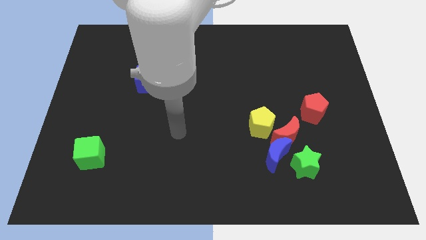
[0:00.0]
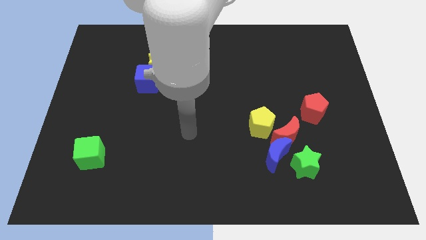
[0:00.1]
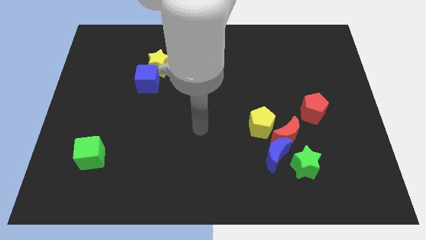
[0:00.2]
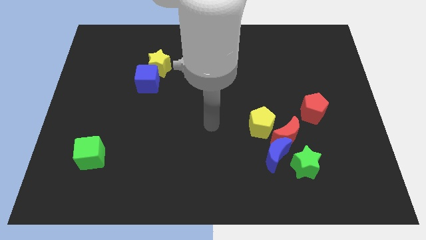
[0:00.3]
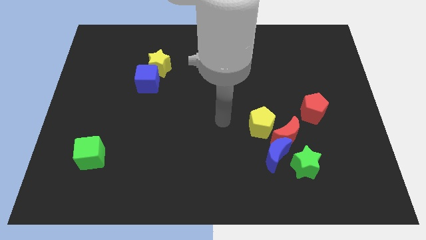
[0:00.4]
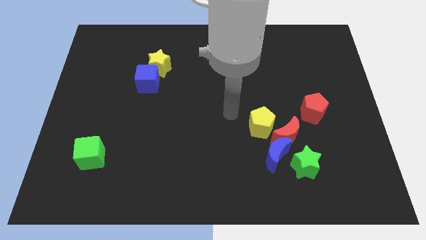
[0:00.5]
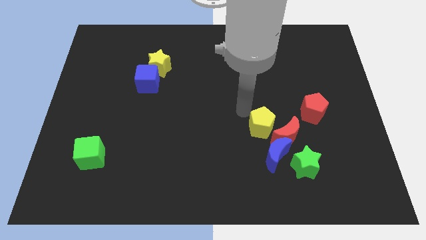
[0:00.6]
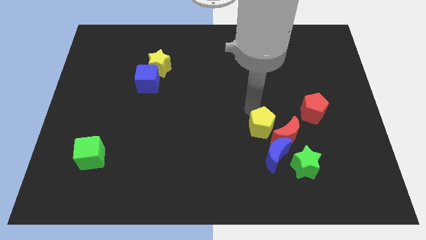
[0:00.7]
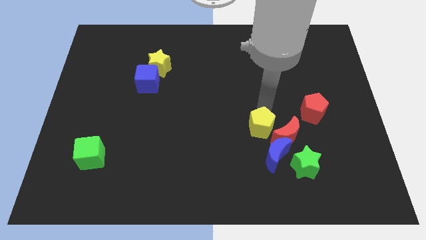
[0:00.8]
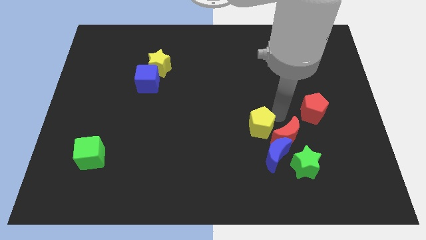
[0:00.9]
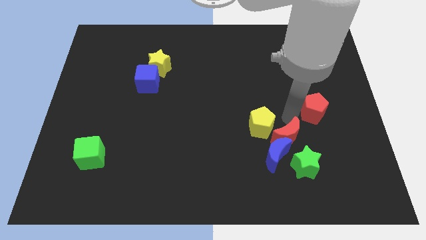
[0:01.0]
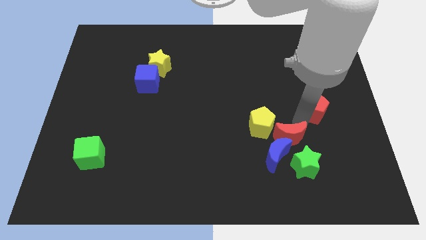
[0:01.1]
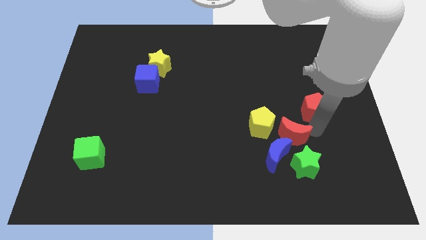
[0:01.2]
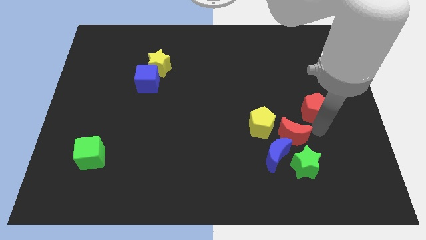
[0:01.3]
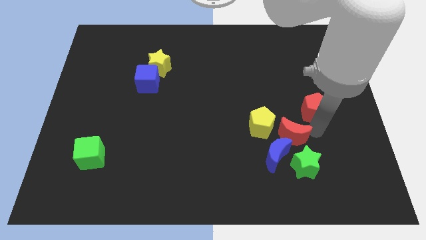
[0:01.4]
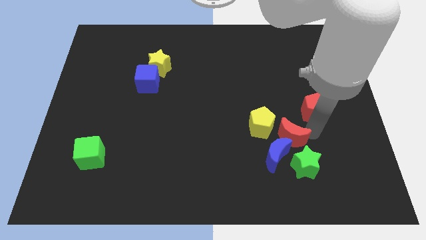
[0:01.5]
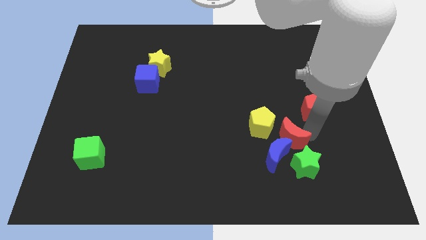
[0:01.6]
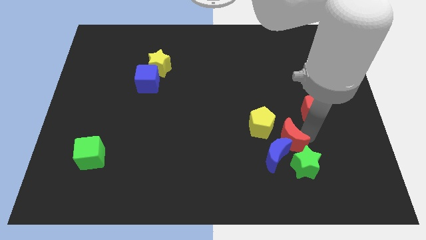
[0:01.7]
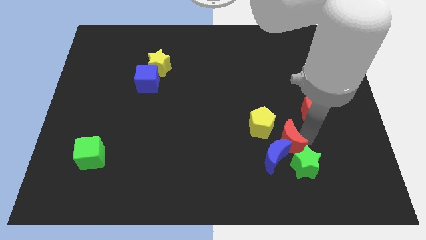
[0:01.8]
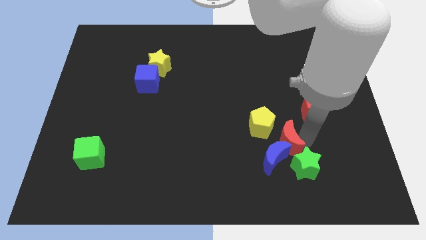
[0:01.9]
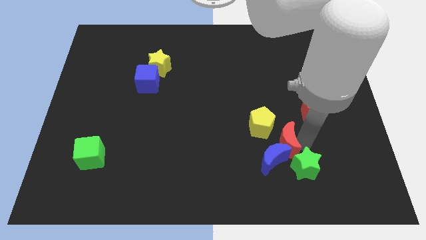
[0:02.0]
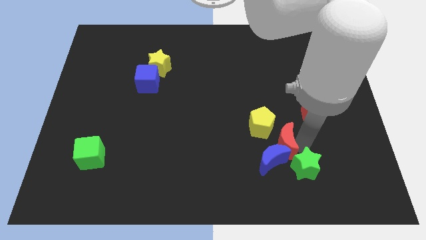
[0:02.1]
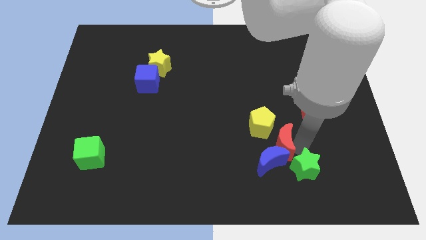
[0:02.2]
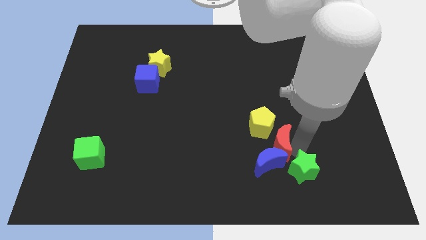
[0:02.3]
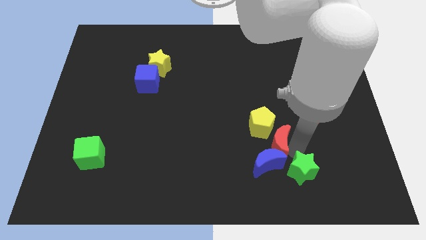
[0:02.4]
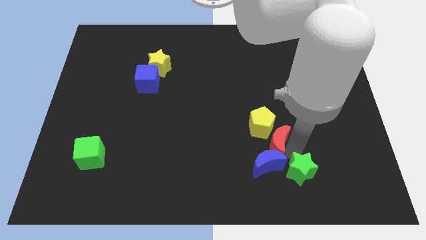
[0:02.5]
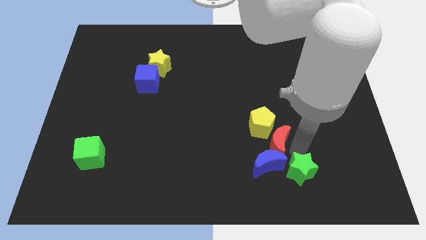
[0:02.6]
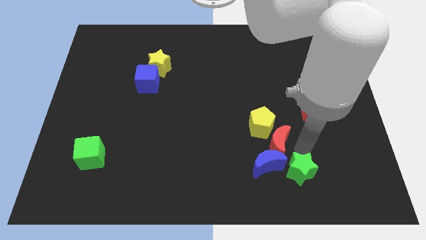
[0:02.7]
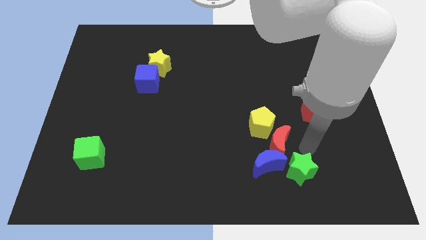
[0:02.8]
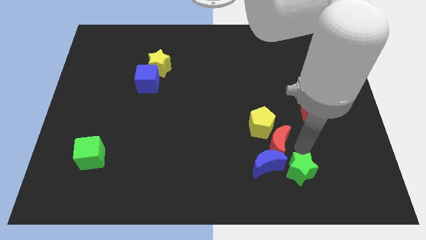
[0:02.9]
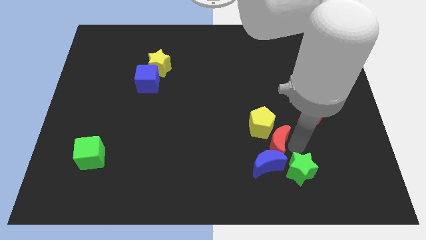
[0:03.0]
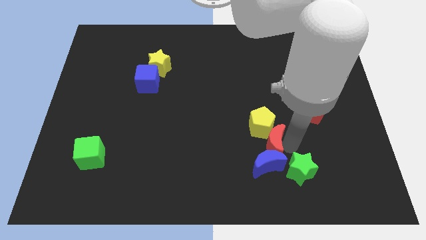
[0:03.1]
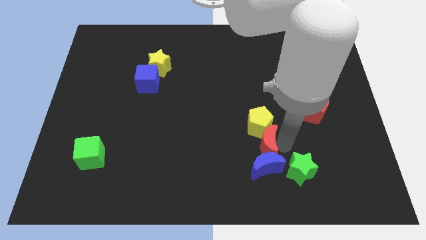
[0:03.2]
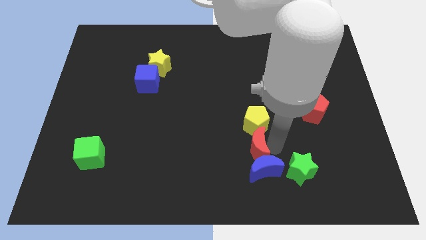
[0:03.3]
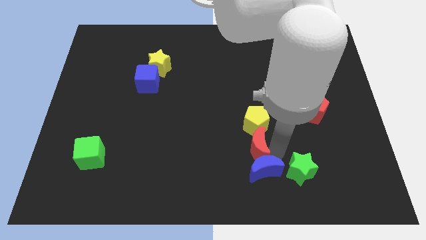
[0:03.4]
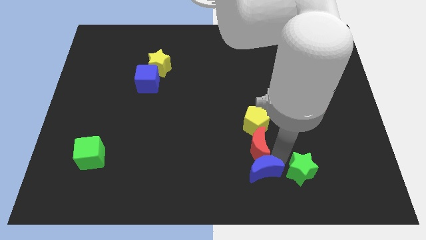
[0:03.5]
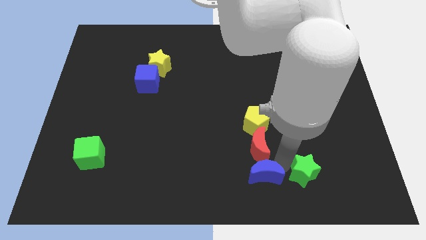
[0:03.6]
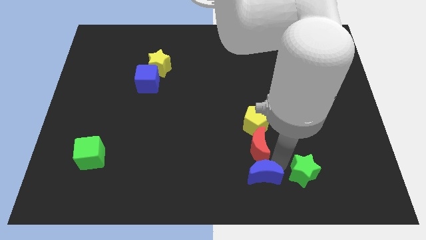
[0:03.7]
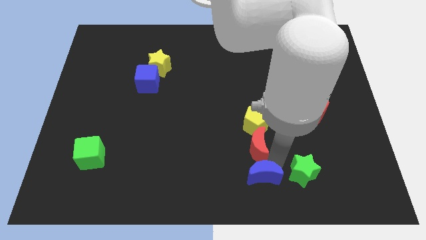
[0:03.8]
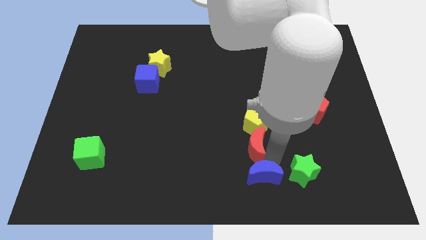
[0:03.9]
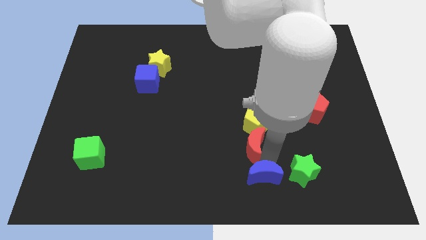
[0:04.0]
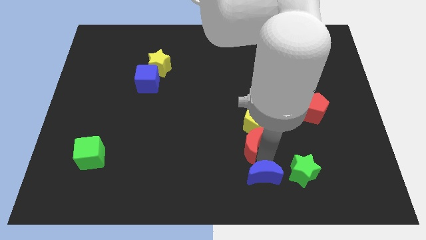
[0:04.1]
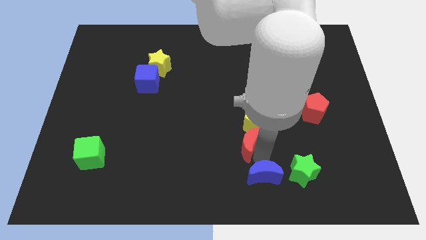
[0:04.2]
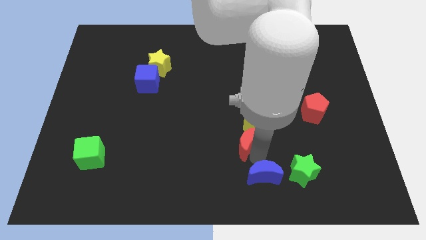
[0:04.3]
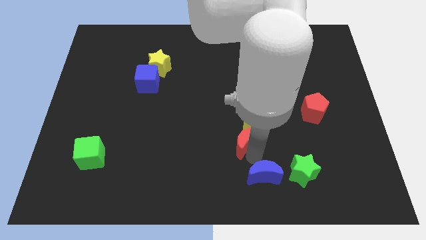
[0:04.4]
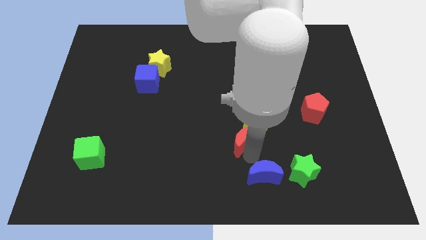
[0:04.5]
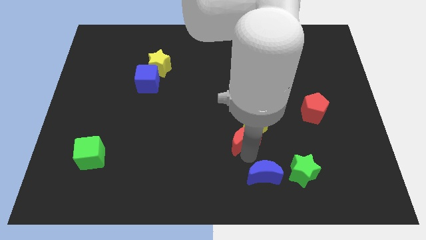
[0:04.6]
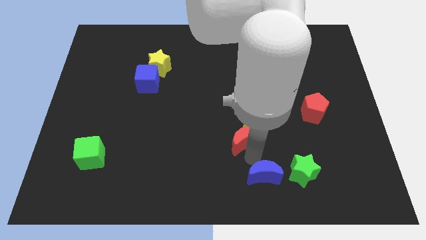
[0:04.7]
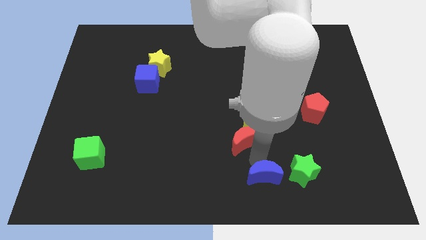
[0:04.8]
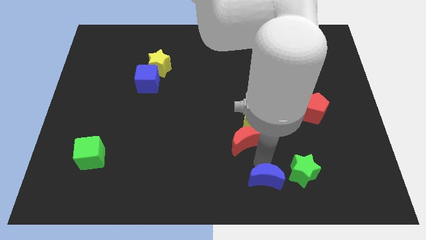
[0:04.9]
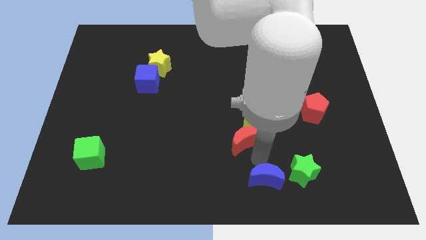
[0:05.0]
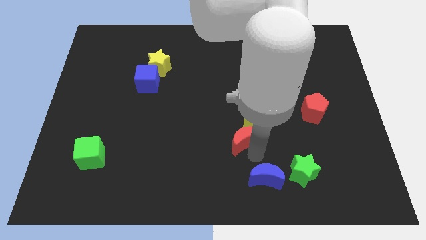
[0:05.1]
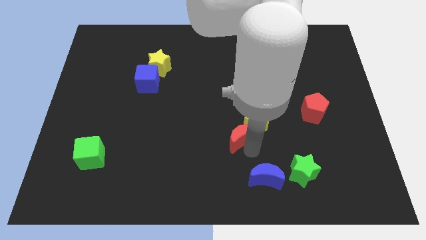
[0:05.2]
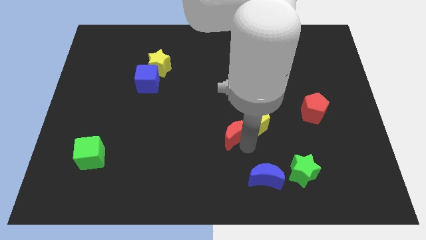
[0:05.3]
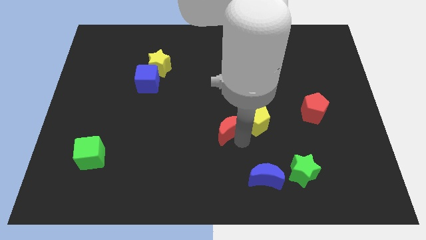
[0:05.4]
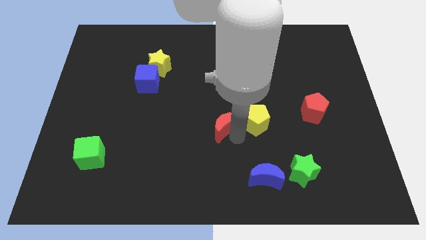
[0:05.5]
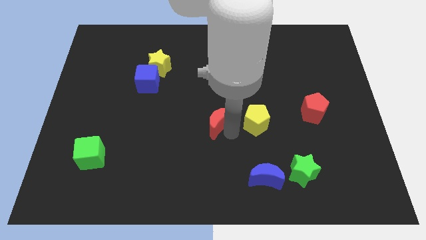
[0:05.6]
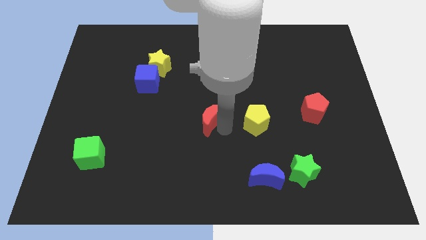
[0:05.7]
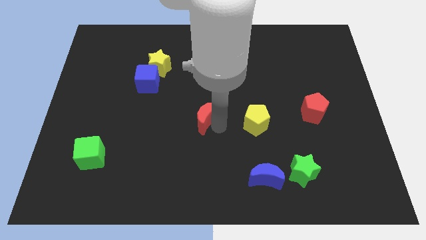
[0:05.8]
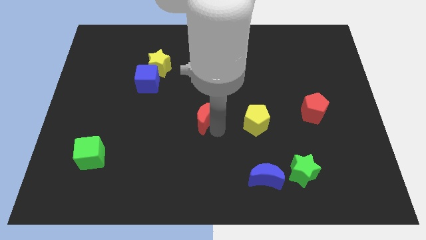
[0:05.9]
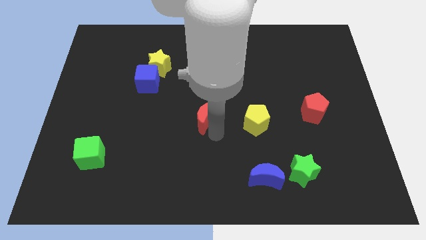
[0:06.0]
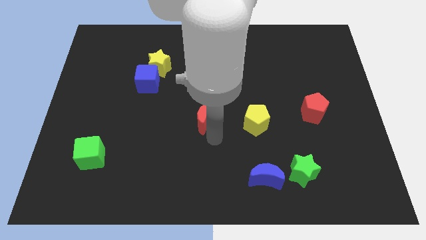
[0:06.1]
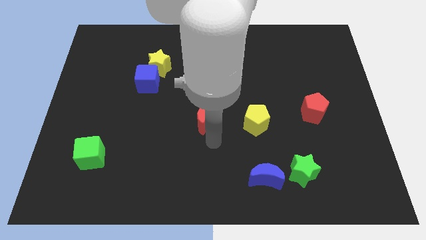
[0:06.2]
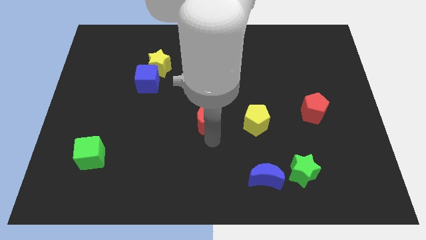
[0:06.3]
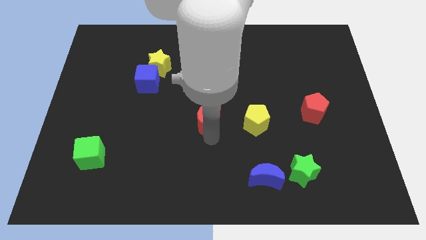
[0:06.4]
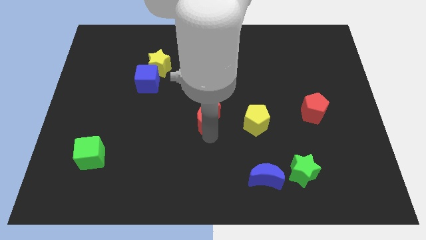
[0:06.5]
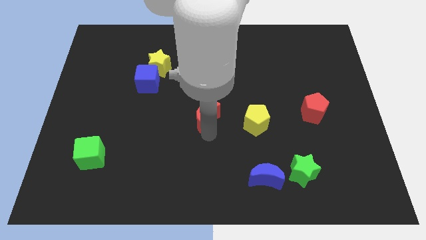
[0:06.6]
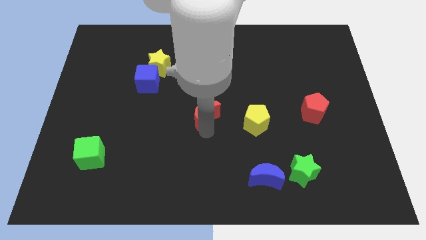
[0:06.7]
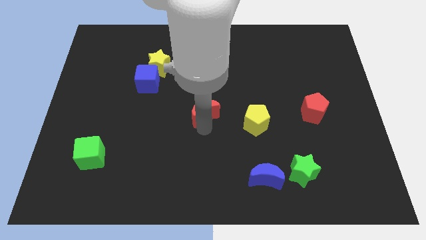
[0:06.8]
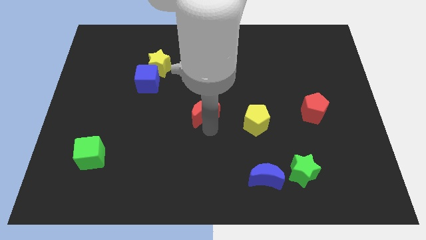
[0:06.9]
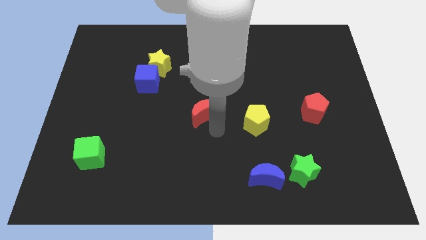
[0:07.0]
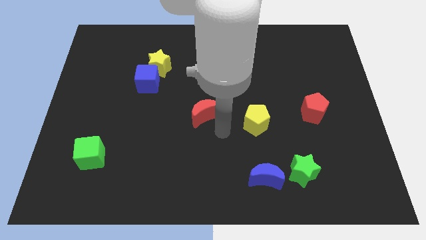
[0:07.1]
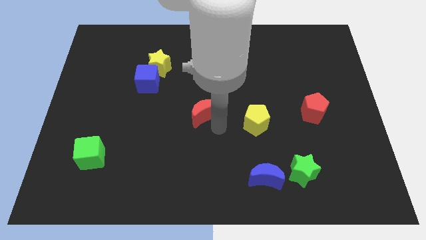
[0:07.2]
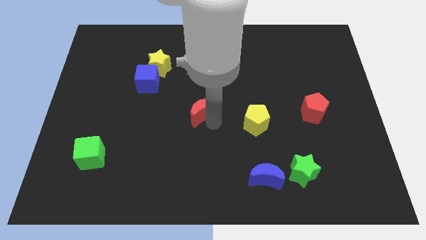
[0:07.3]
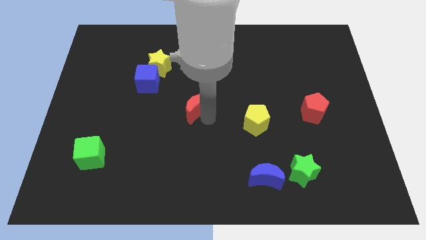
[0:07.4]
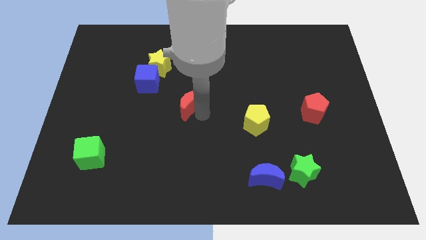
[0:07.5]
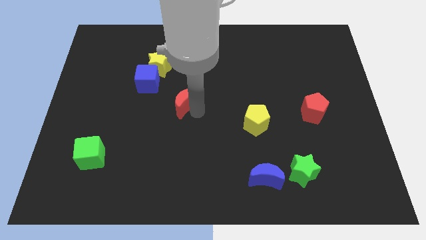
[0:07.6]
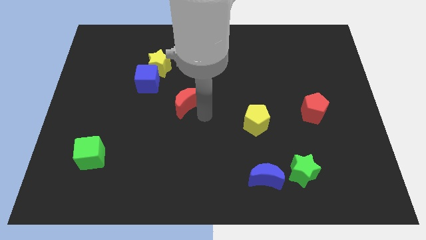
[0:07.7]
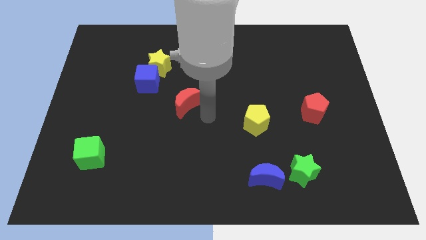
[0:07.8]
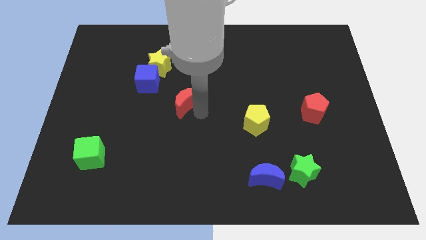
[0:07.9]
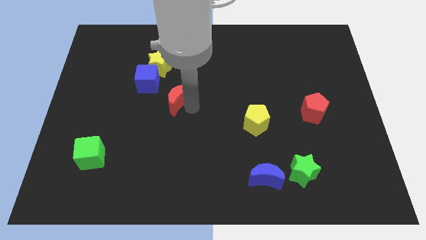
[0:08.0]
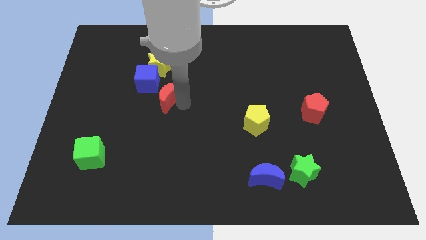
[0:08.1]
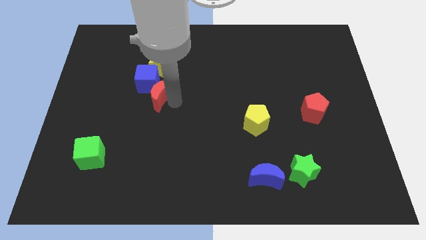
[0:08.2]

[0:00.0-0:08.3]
put the red moon close to the blue cube
